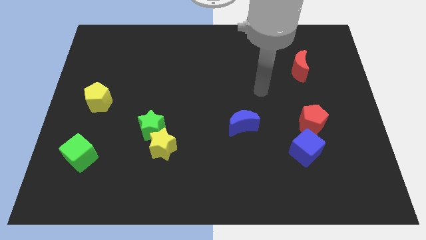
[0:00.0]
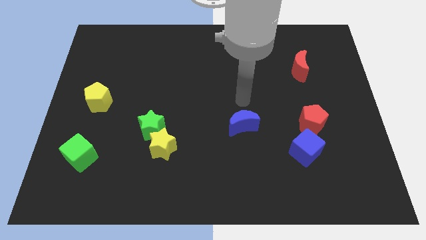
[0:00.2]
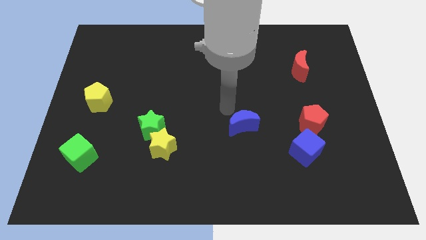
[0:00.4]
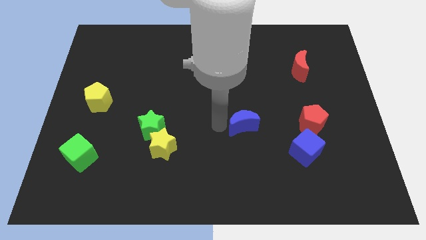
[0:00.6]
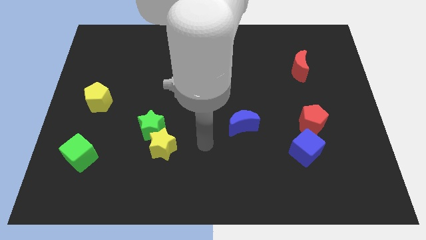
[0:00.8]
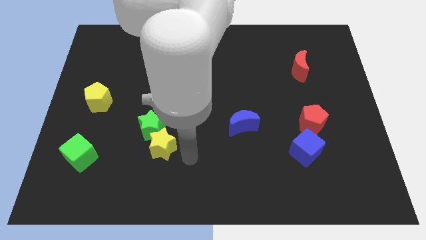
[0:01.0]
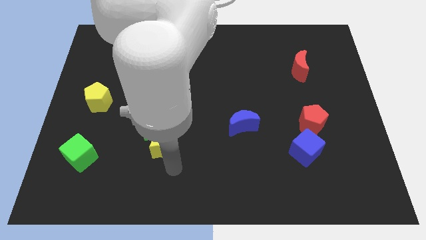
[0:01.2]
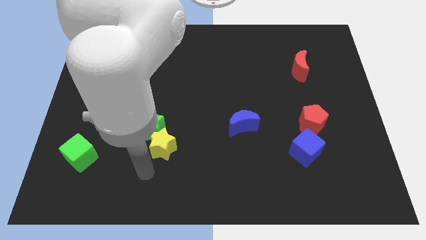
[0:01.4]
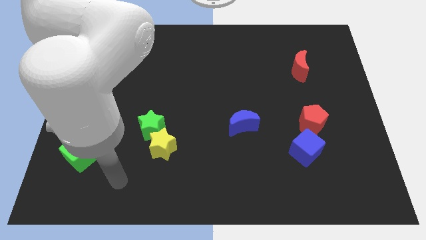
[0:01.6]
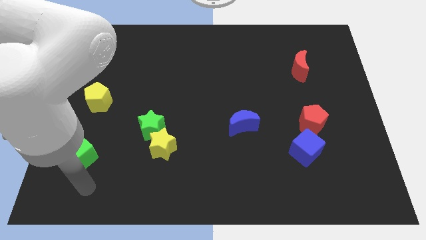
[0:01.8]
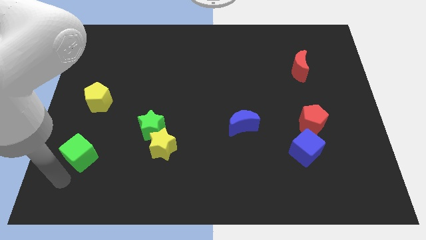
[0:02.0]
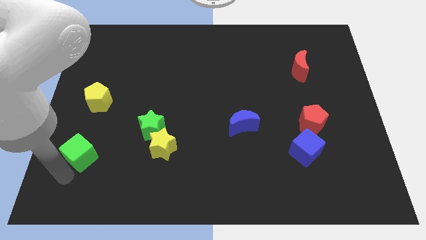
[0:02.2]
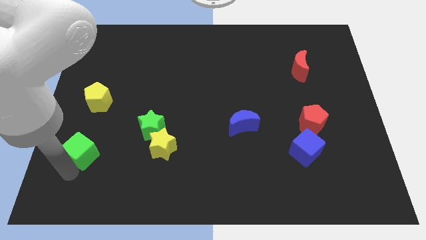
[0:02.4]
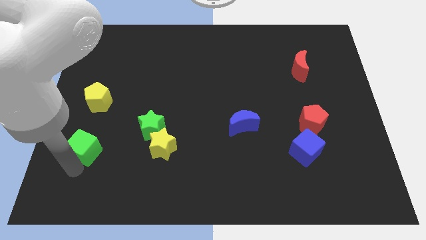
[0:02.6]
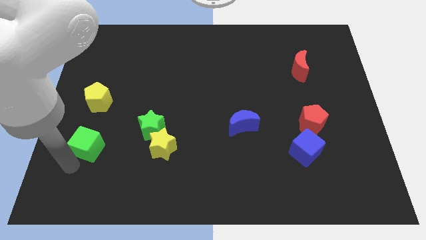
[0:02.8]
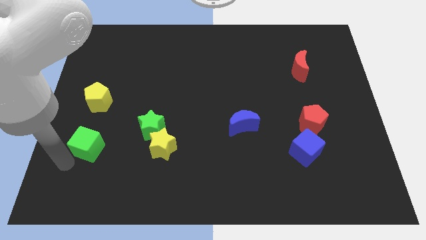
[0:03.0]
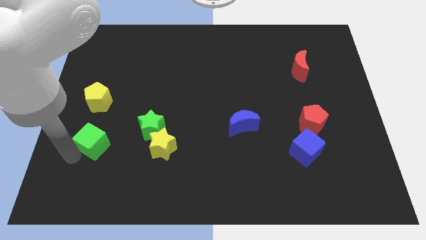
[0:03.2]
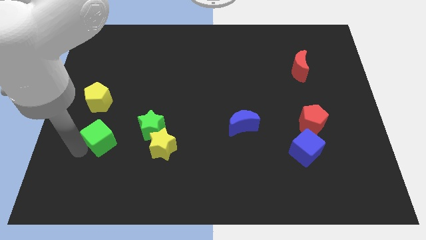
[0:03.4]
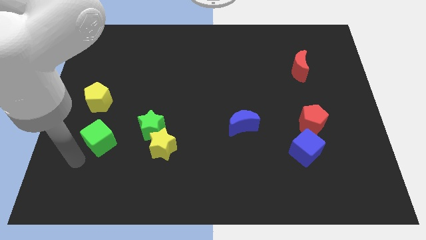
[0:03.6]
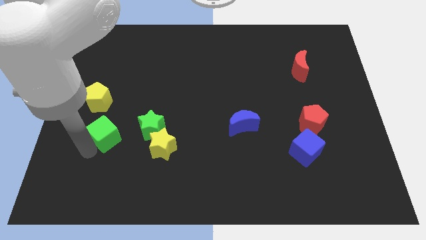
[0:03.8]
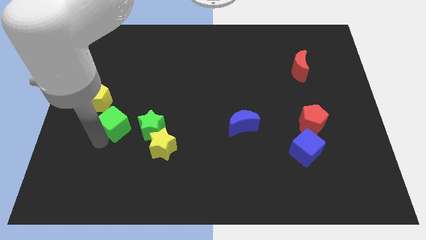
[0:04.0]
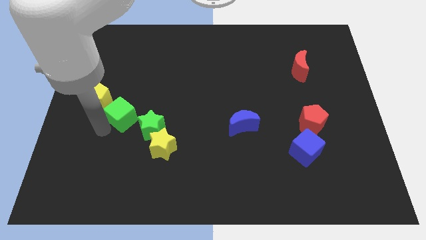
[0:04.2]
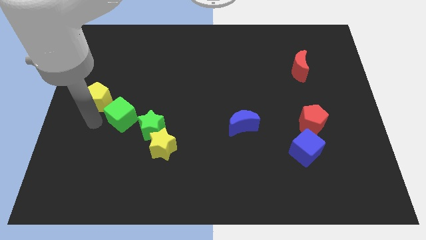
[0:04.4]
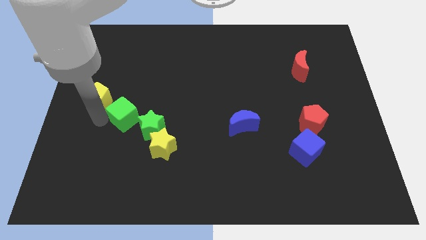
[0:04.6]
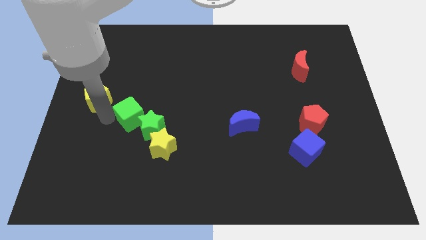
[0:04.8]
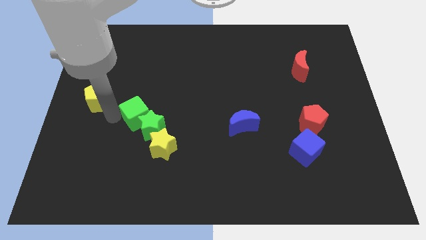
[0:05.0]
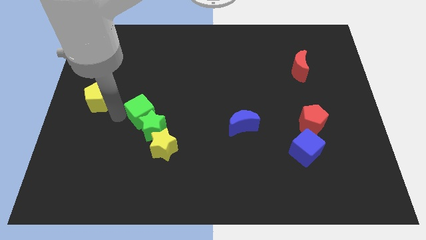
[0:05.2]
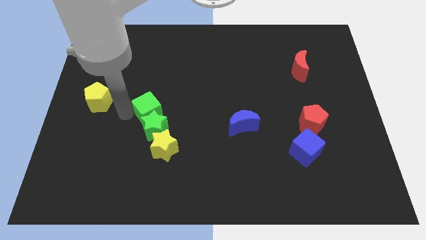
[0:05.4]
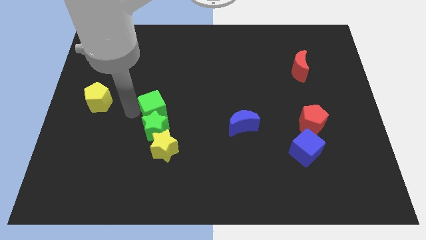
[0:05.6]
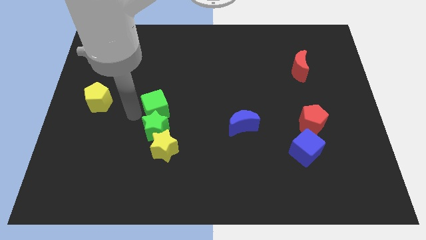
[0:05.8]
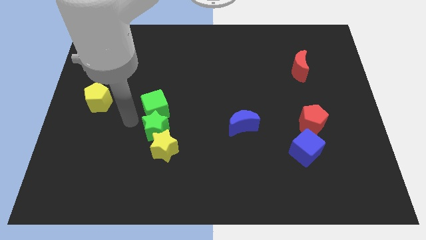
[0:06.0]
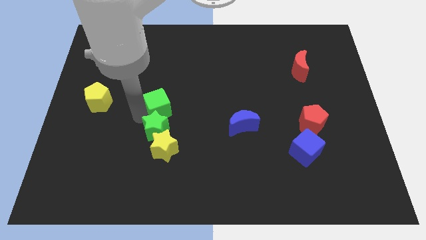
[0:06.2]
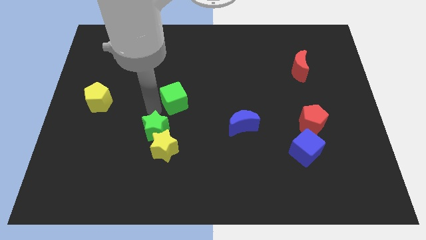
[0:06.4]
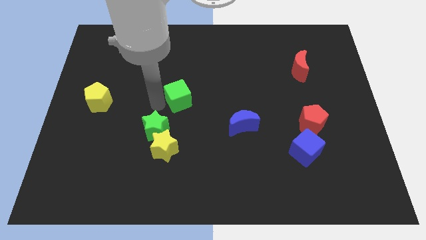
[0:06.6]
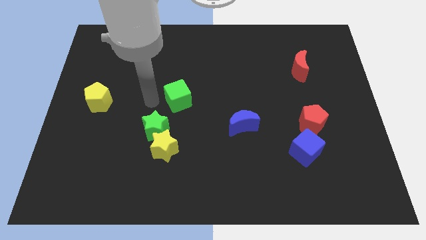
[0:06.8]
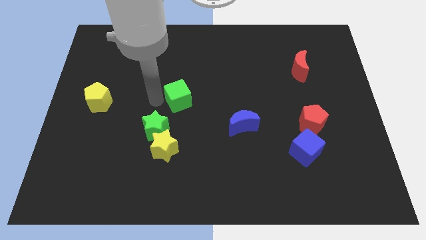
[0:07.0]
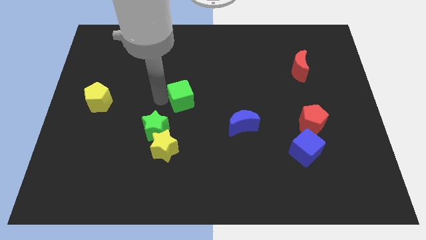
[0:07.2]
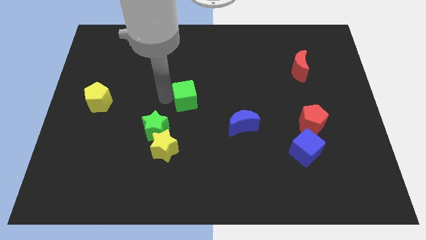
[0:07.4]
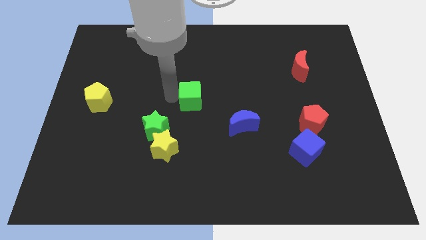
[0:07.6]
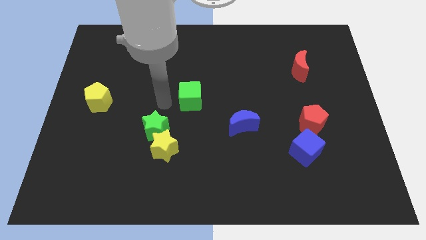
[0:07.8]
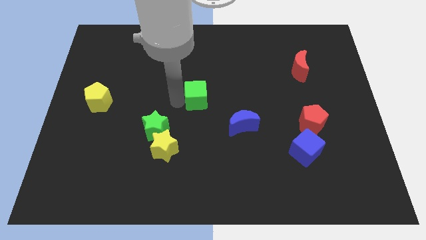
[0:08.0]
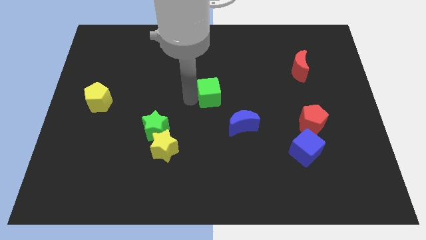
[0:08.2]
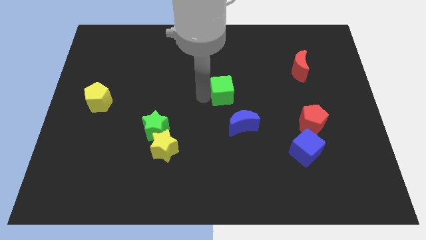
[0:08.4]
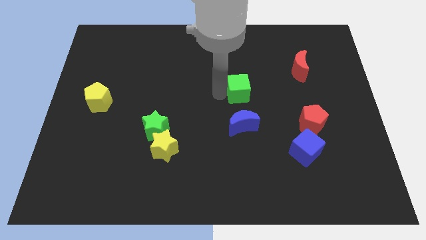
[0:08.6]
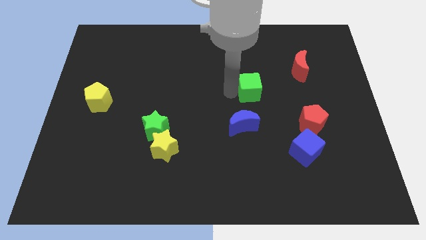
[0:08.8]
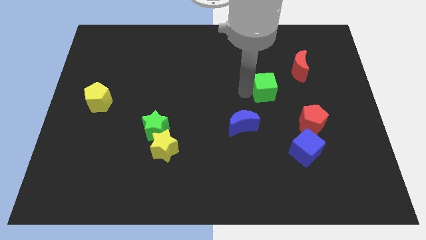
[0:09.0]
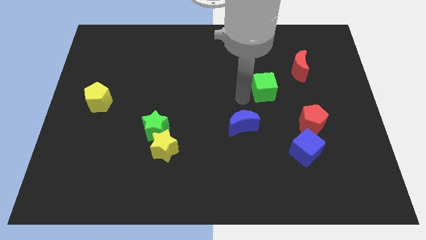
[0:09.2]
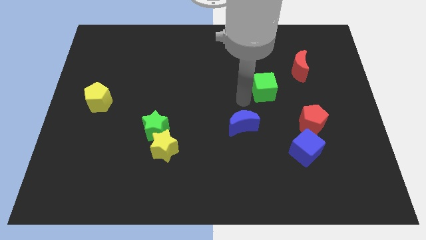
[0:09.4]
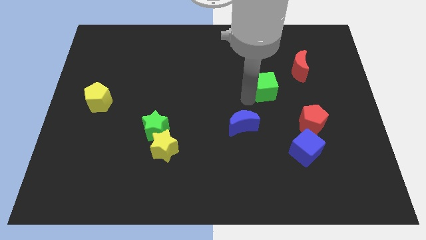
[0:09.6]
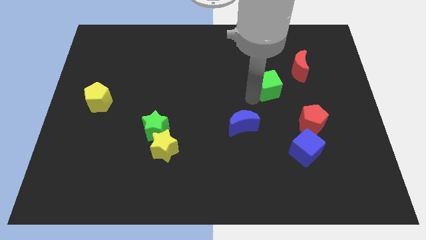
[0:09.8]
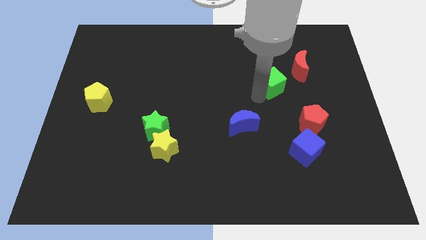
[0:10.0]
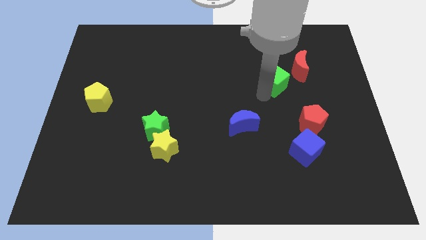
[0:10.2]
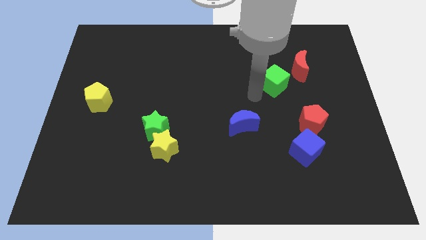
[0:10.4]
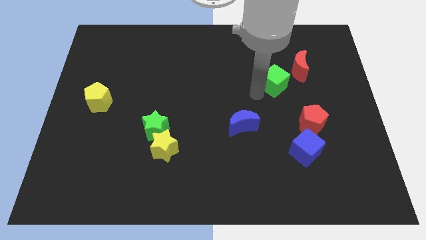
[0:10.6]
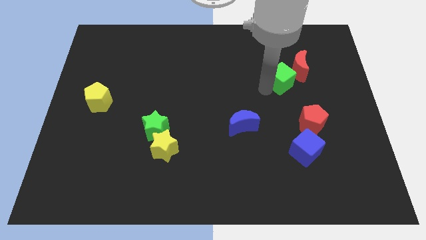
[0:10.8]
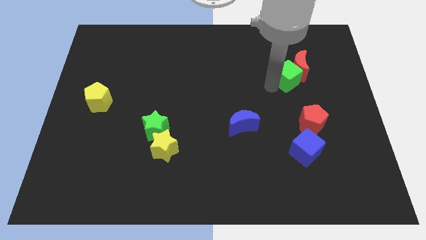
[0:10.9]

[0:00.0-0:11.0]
slide the green cube close to the red moon

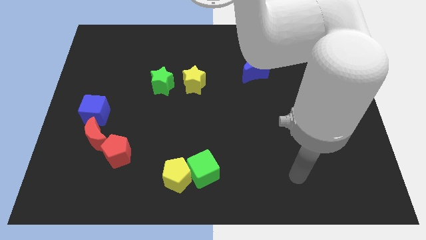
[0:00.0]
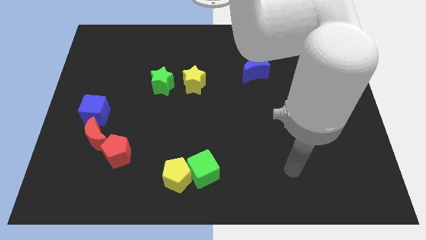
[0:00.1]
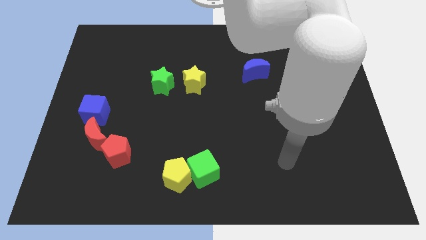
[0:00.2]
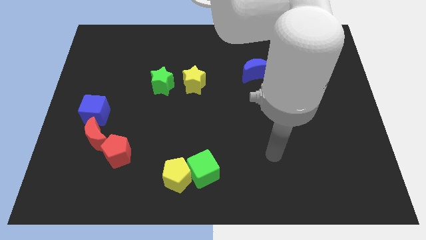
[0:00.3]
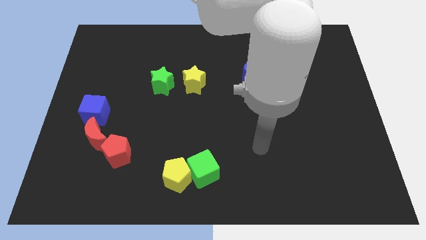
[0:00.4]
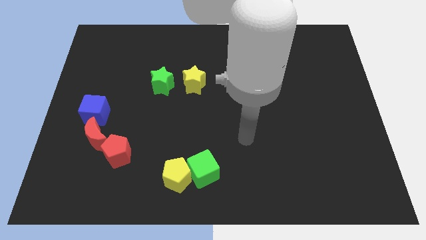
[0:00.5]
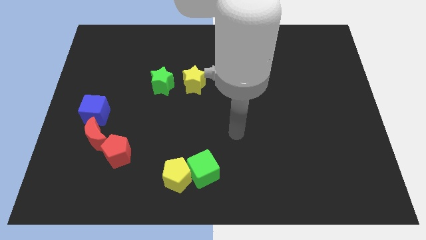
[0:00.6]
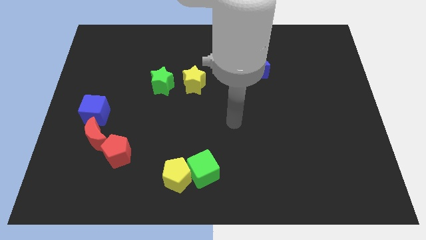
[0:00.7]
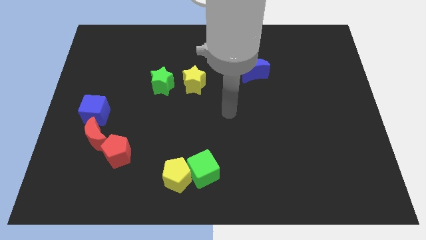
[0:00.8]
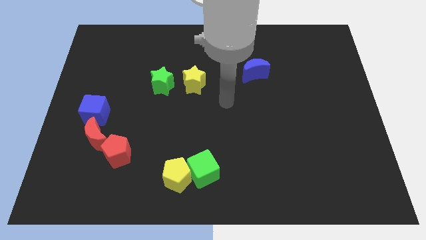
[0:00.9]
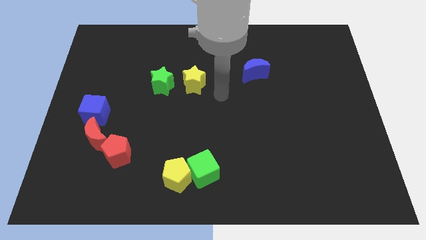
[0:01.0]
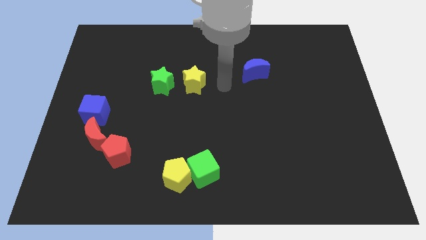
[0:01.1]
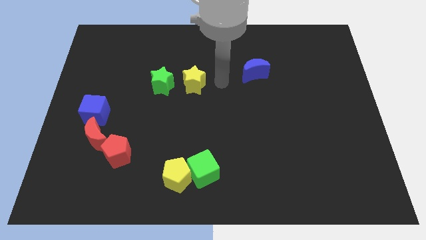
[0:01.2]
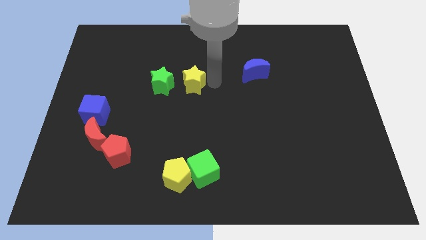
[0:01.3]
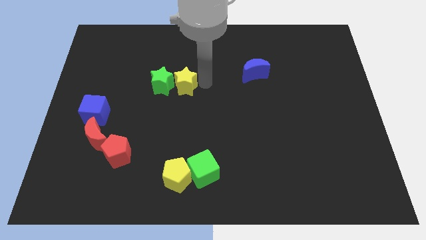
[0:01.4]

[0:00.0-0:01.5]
put the yellow star to the green star

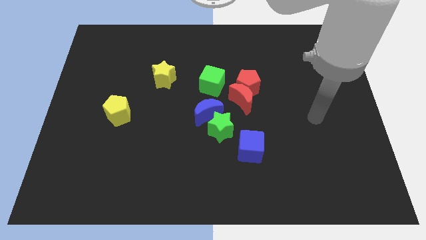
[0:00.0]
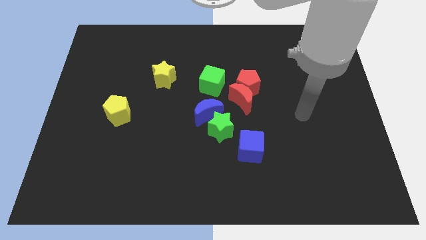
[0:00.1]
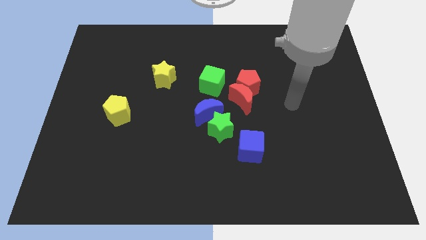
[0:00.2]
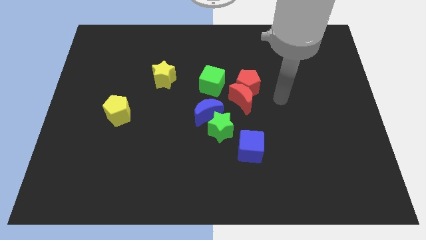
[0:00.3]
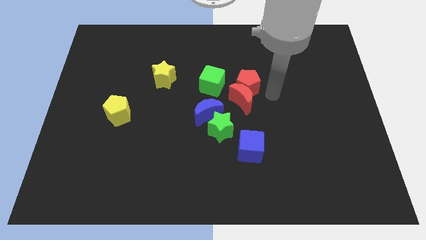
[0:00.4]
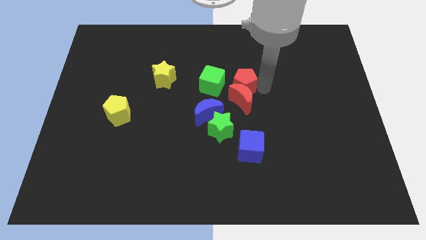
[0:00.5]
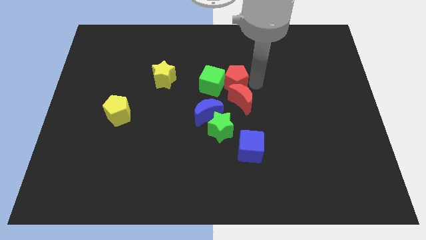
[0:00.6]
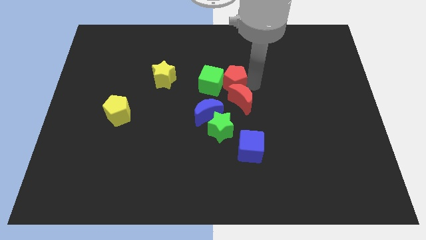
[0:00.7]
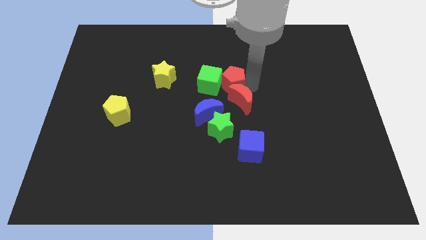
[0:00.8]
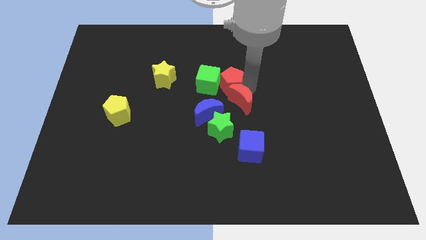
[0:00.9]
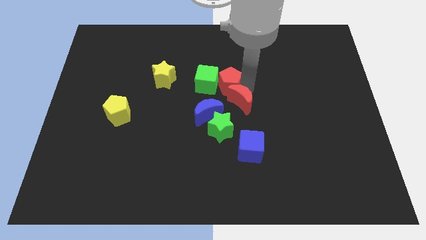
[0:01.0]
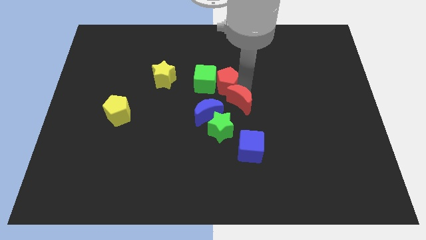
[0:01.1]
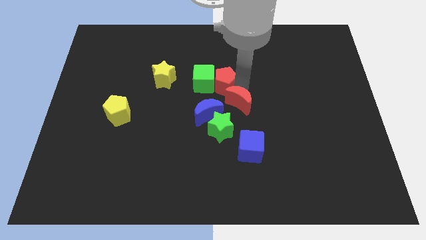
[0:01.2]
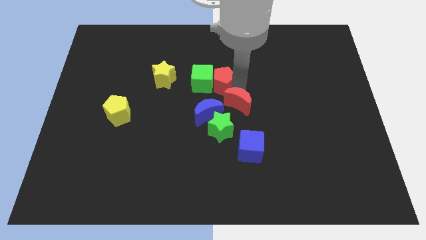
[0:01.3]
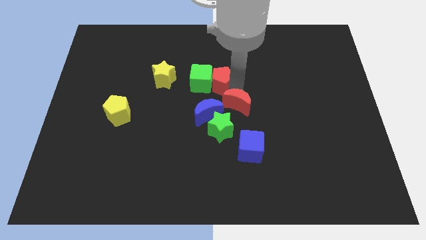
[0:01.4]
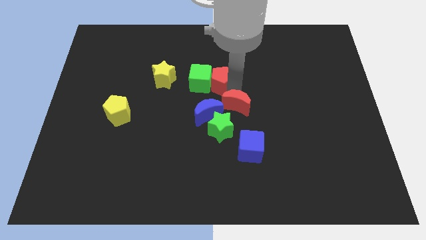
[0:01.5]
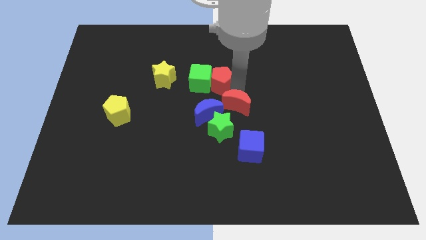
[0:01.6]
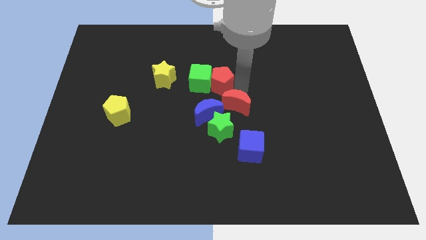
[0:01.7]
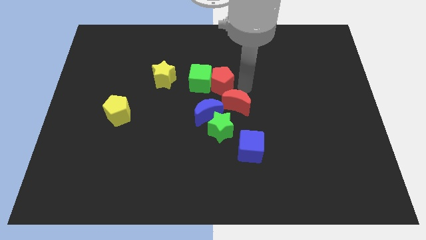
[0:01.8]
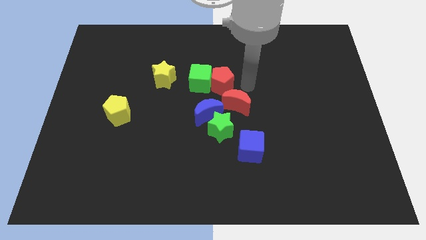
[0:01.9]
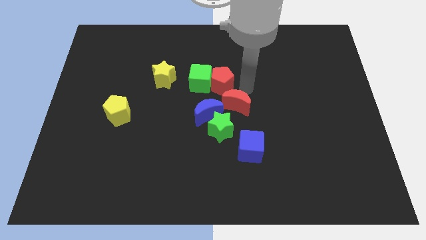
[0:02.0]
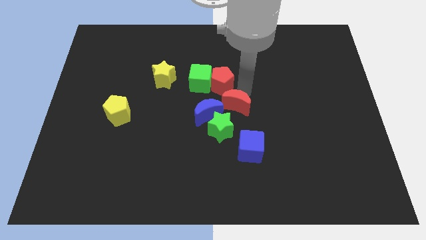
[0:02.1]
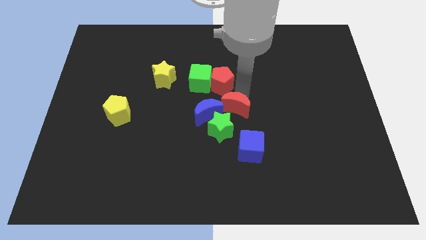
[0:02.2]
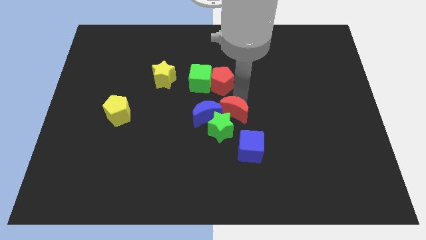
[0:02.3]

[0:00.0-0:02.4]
move the red moon towards the green star
